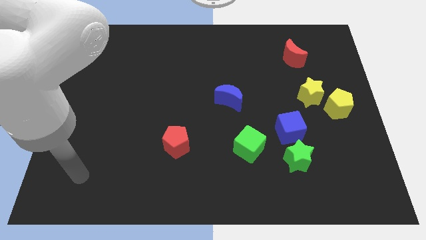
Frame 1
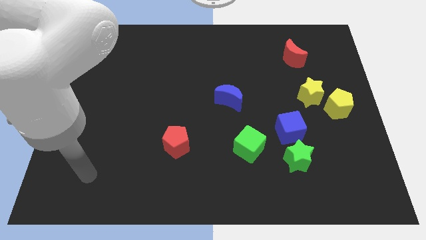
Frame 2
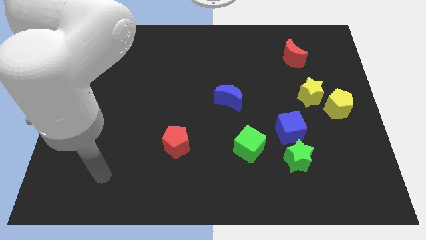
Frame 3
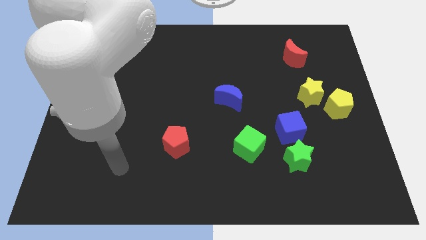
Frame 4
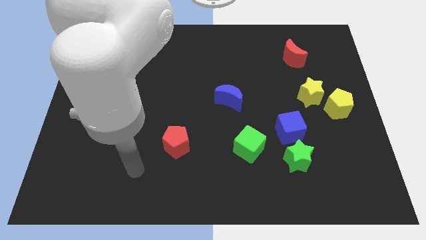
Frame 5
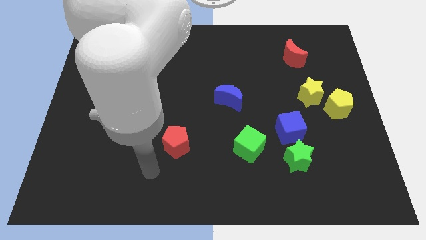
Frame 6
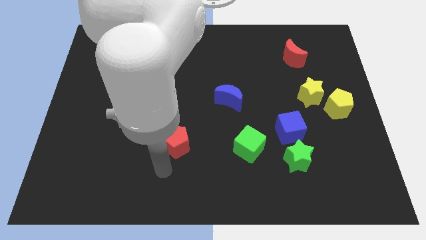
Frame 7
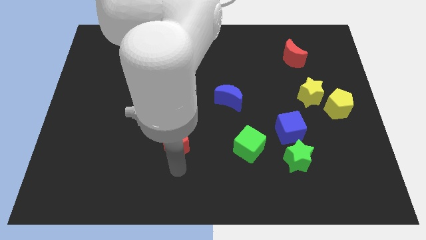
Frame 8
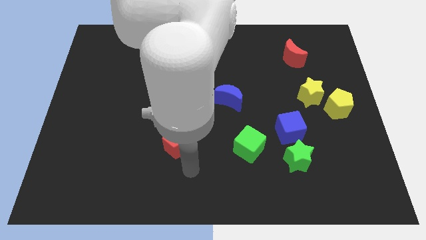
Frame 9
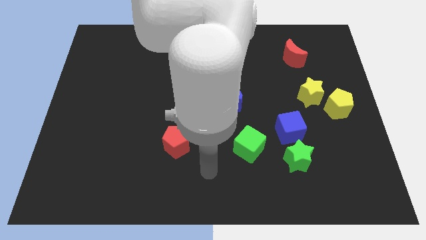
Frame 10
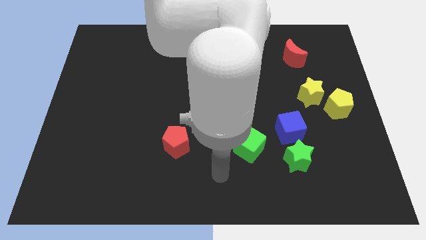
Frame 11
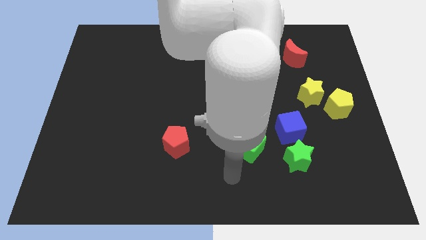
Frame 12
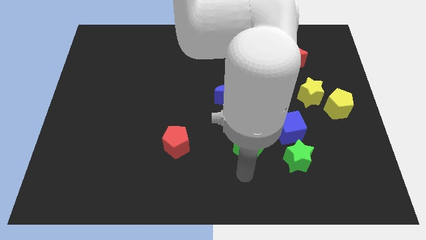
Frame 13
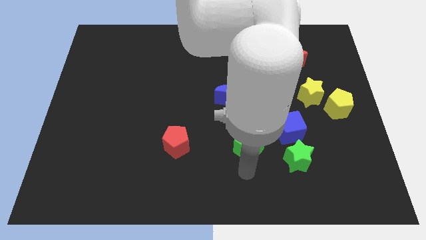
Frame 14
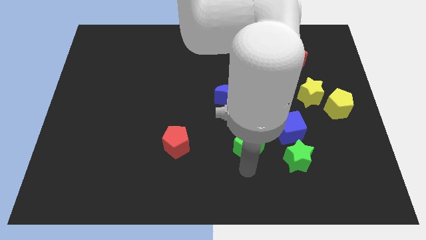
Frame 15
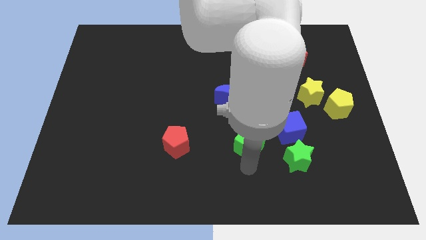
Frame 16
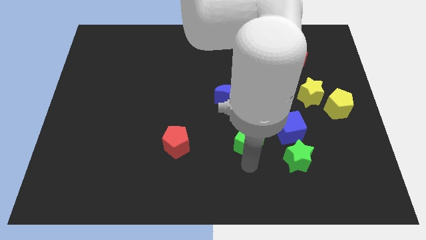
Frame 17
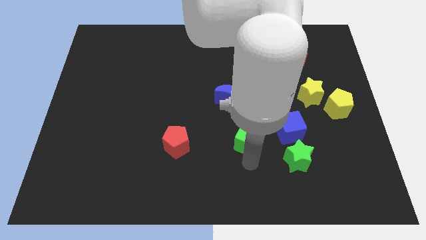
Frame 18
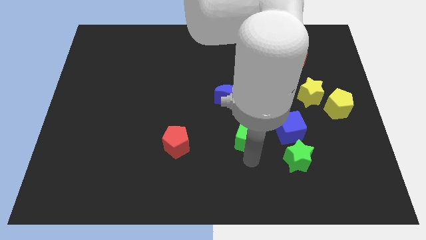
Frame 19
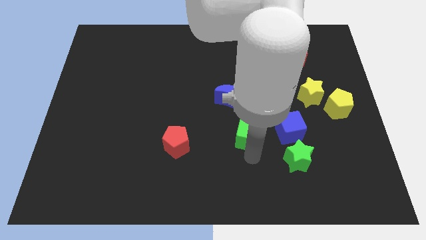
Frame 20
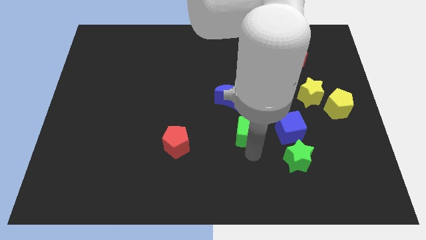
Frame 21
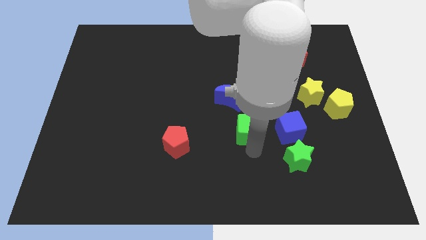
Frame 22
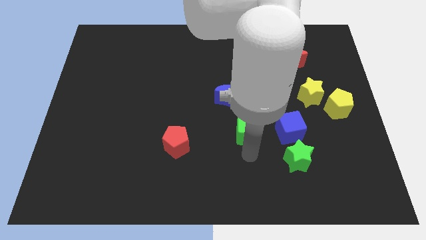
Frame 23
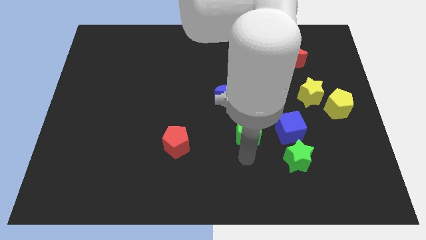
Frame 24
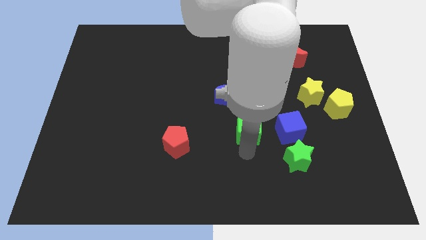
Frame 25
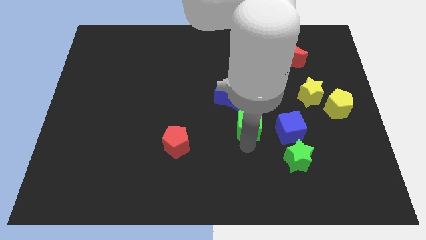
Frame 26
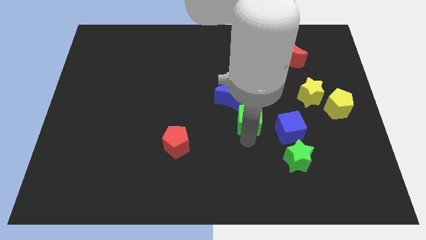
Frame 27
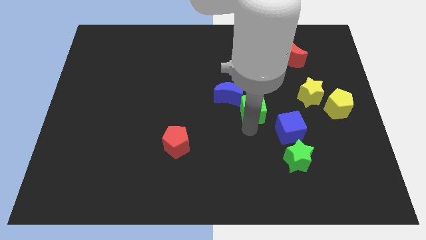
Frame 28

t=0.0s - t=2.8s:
slightly push the green cube upwards

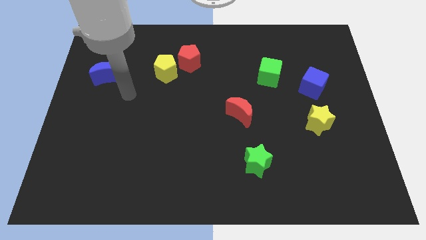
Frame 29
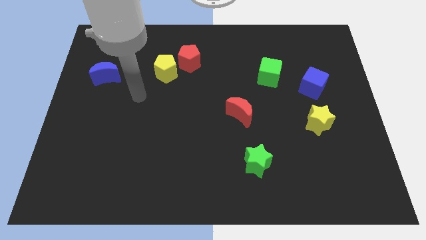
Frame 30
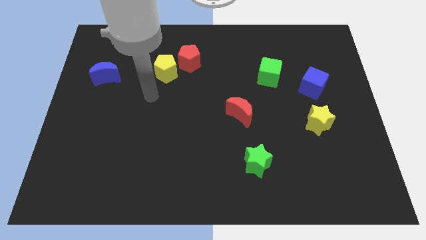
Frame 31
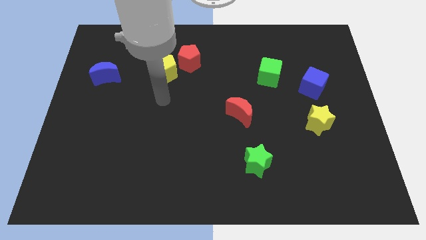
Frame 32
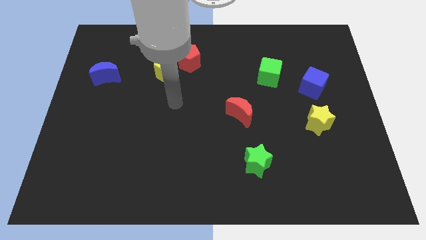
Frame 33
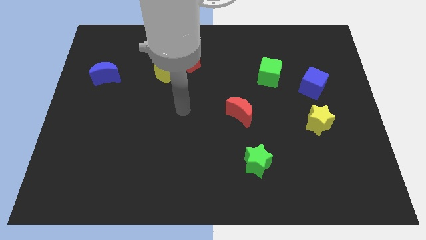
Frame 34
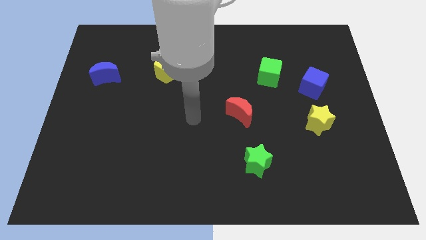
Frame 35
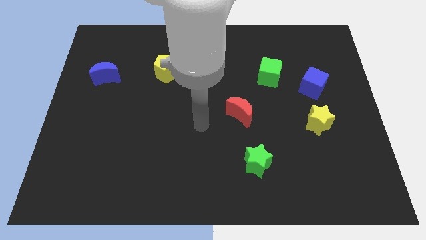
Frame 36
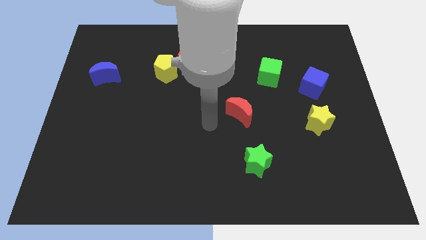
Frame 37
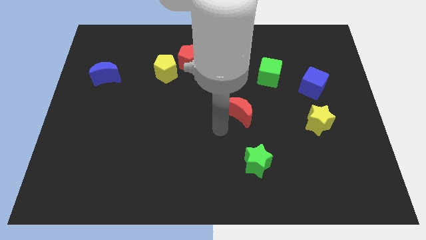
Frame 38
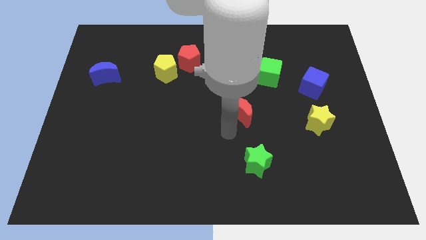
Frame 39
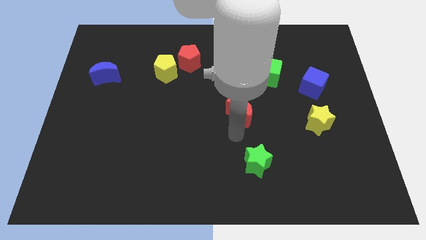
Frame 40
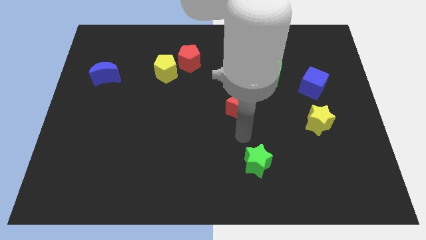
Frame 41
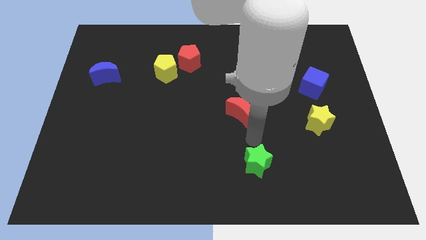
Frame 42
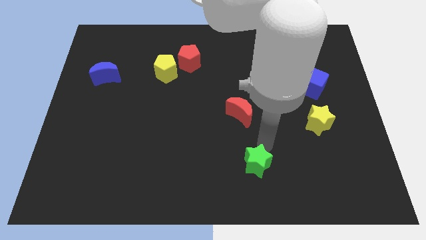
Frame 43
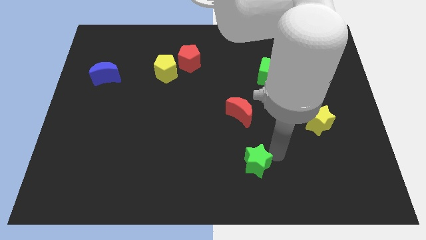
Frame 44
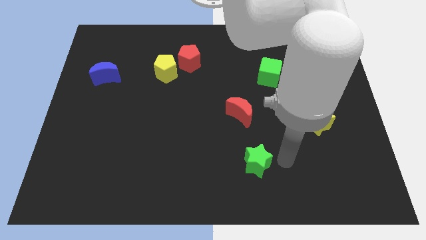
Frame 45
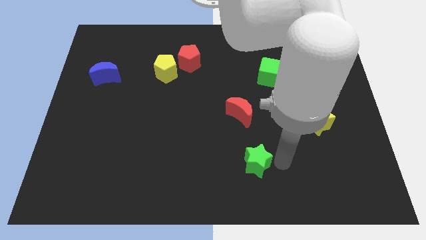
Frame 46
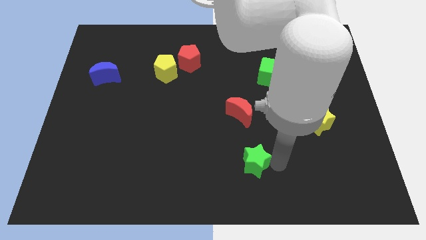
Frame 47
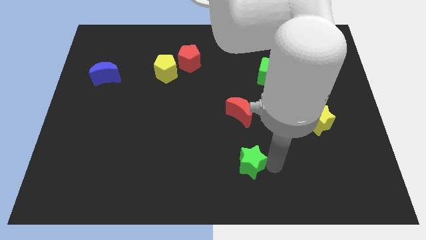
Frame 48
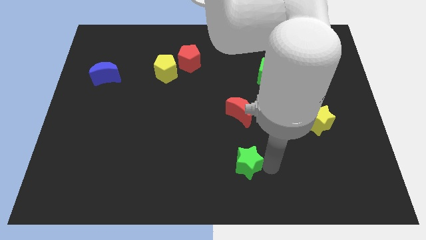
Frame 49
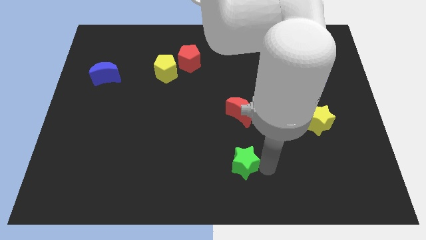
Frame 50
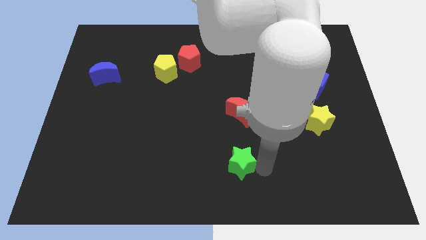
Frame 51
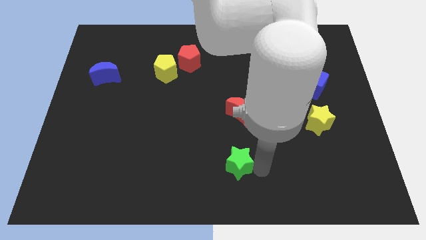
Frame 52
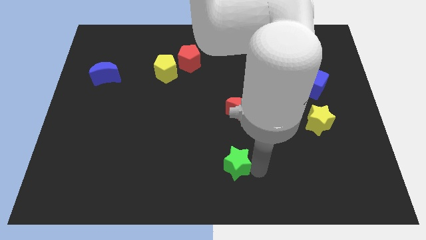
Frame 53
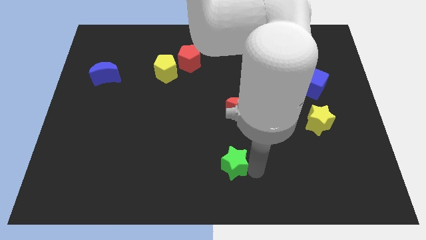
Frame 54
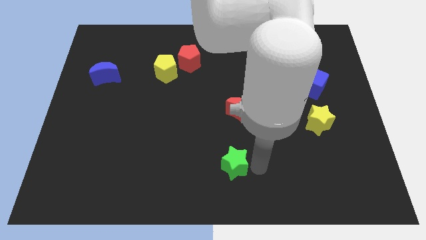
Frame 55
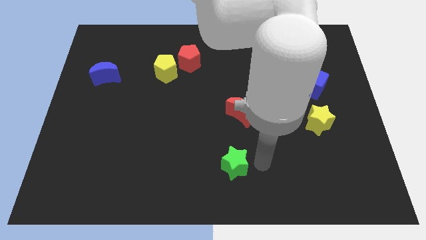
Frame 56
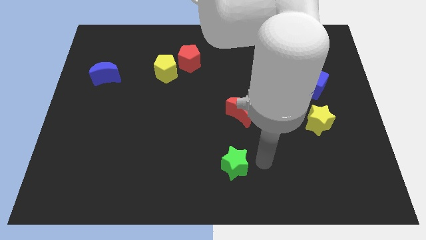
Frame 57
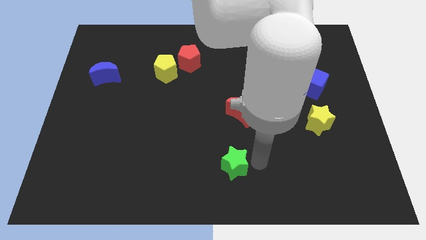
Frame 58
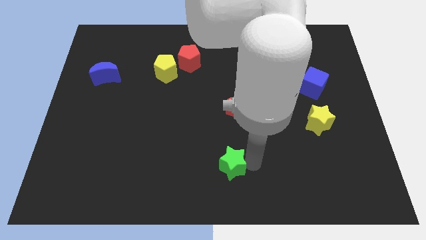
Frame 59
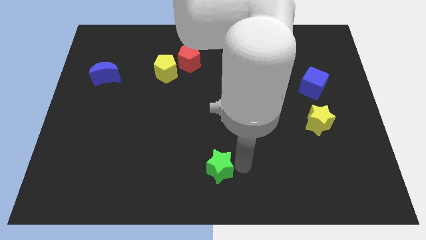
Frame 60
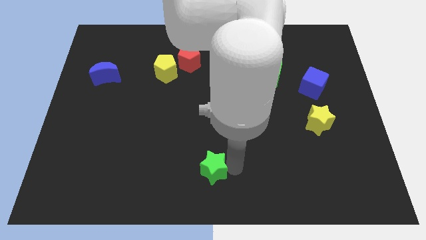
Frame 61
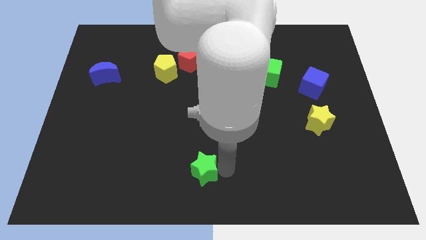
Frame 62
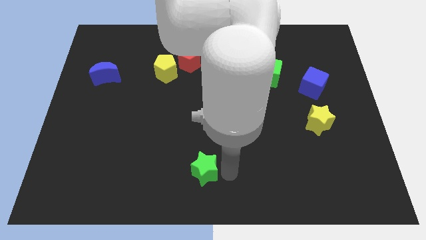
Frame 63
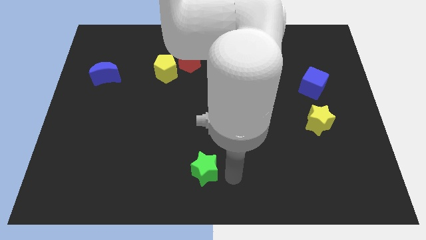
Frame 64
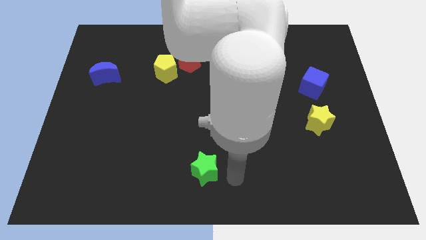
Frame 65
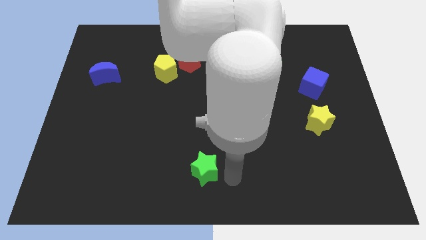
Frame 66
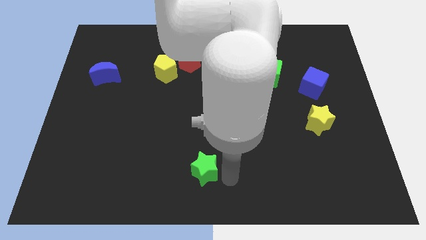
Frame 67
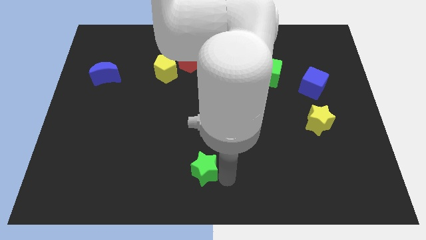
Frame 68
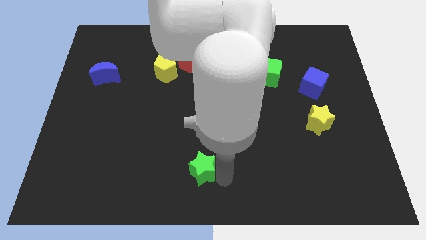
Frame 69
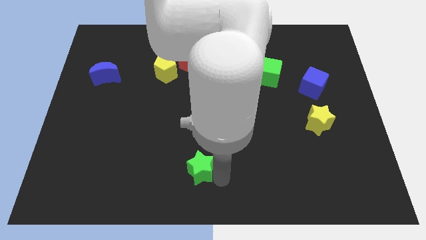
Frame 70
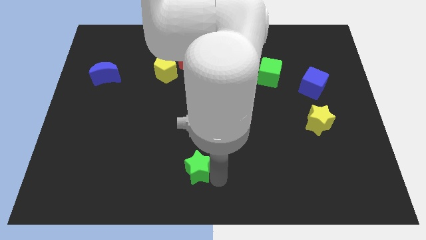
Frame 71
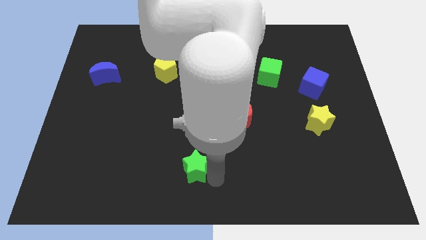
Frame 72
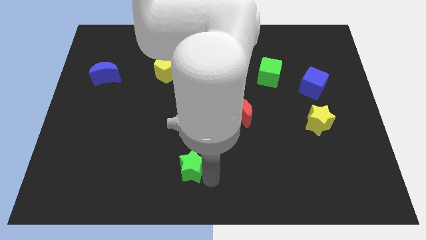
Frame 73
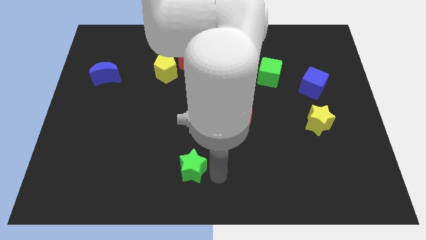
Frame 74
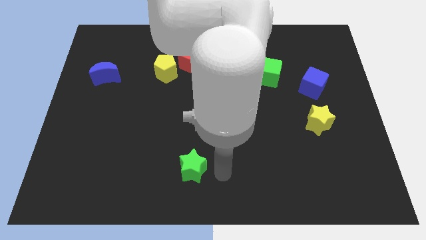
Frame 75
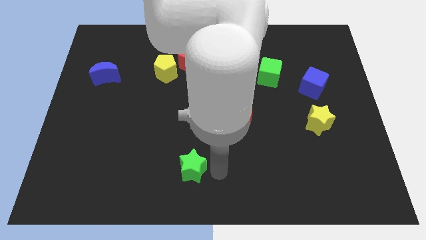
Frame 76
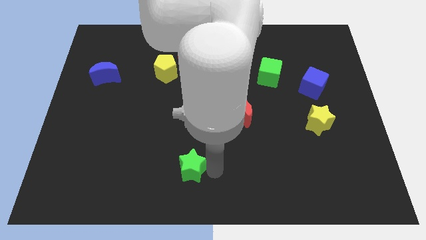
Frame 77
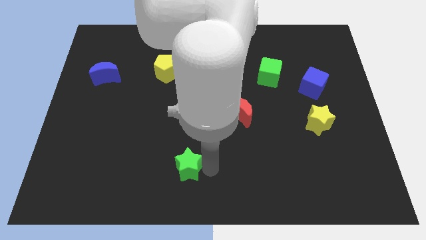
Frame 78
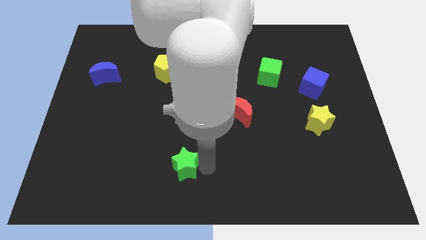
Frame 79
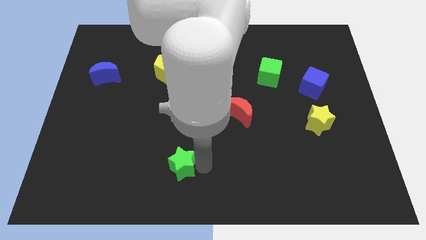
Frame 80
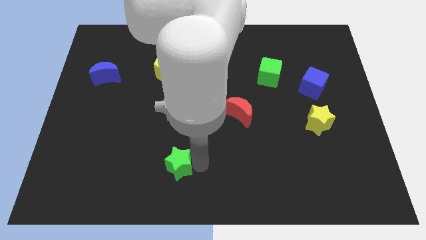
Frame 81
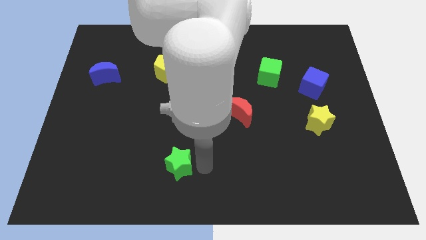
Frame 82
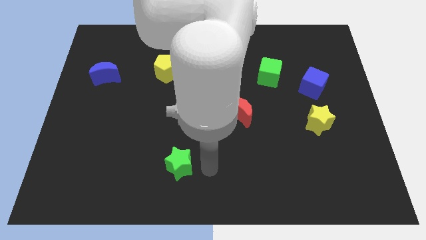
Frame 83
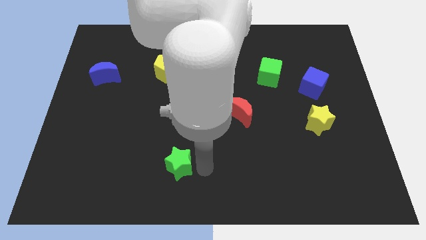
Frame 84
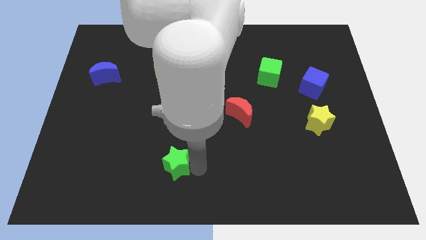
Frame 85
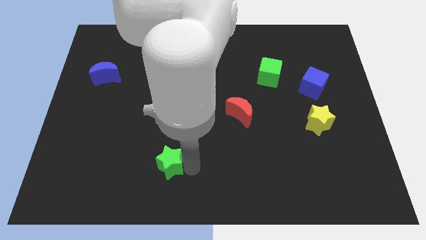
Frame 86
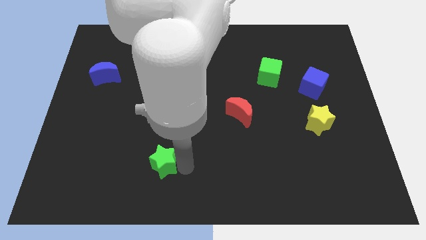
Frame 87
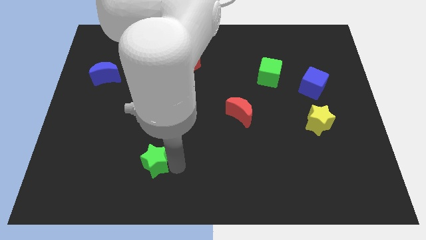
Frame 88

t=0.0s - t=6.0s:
slide the green star to the left
